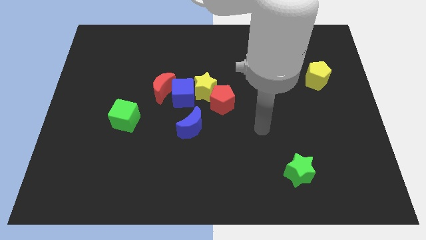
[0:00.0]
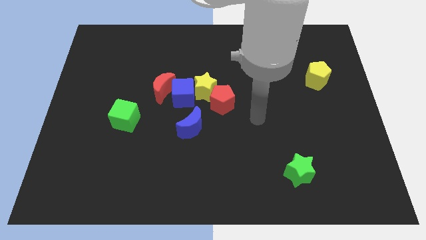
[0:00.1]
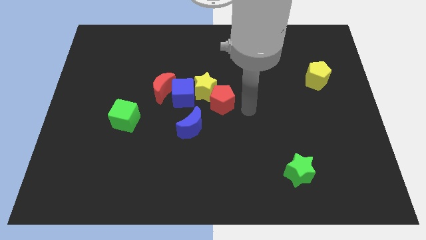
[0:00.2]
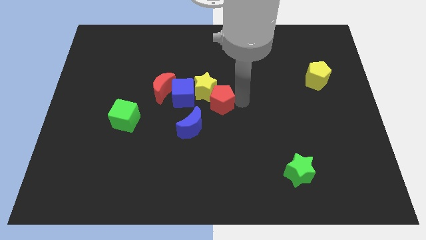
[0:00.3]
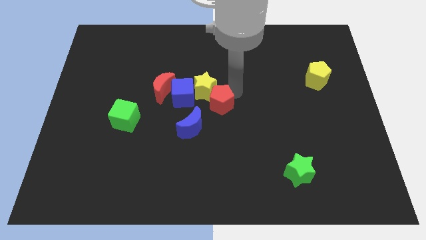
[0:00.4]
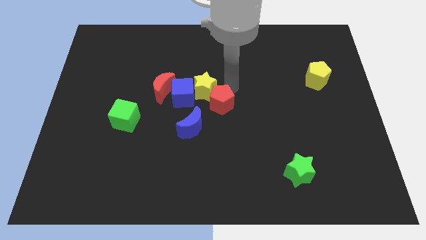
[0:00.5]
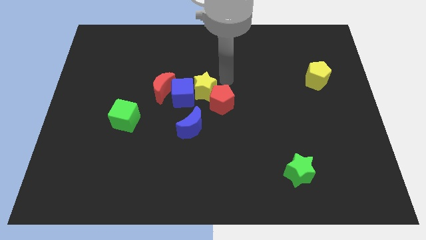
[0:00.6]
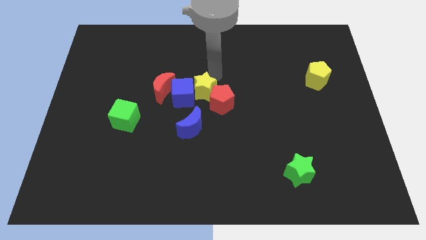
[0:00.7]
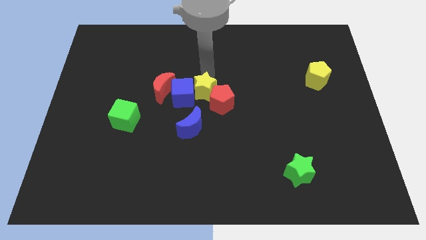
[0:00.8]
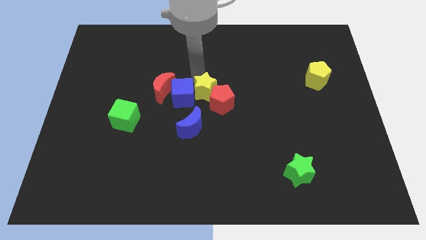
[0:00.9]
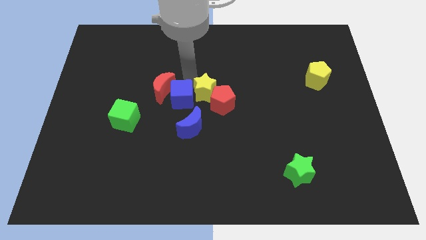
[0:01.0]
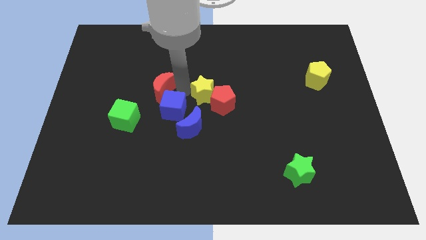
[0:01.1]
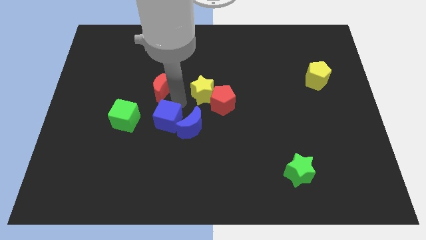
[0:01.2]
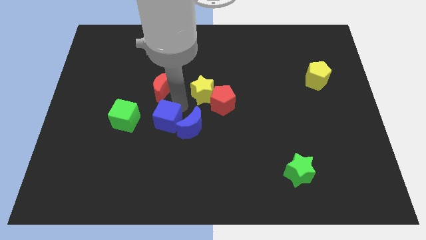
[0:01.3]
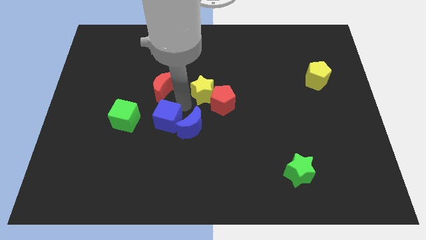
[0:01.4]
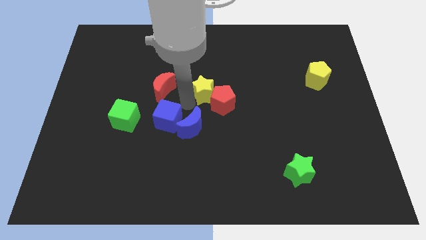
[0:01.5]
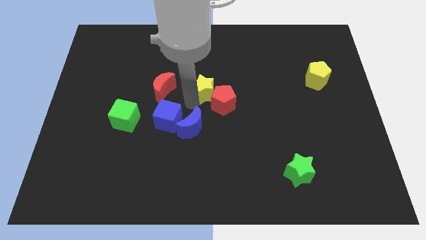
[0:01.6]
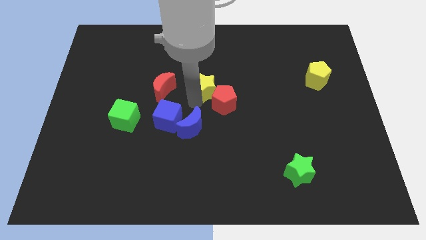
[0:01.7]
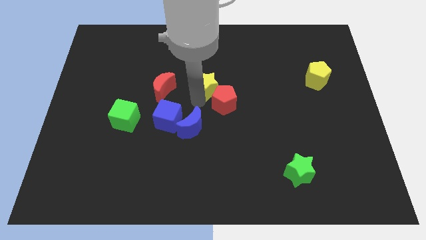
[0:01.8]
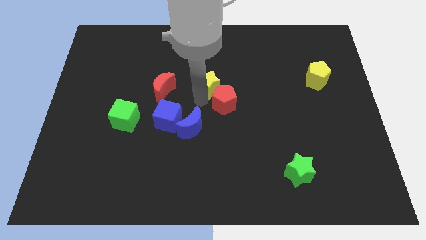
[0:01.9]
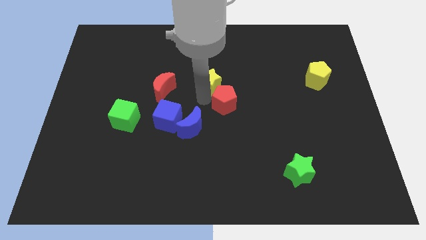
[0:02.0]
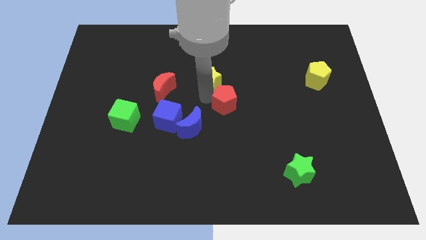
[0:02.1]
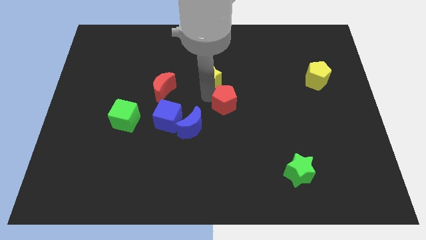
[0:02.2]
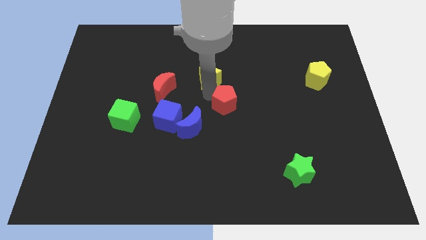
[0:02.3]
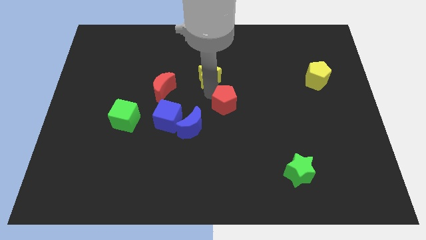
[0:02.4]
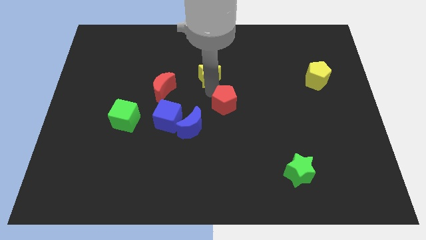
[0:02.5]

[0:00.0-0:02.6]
pull the yellow star apart from the blue cube, red pentagon, and red moon

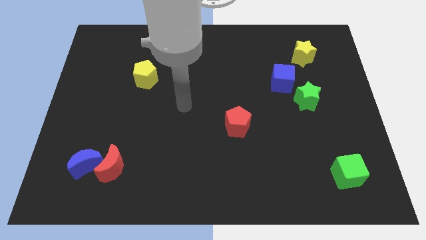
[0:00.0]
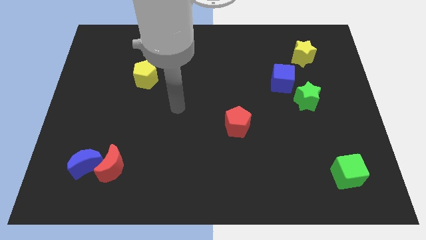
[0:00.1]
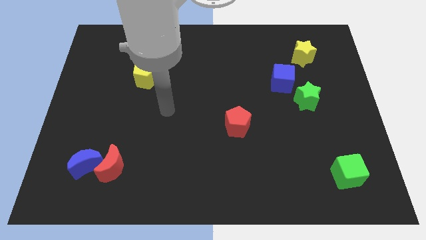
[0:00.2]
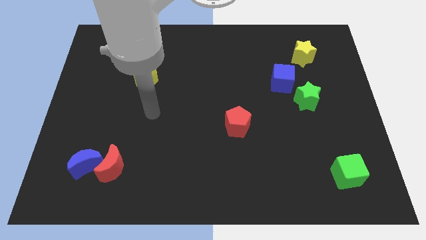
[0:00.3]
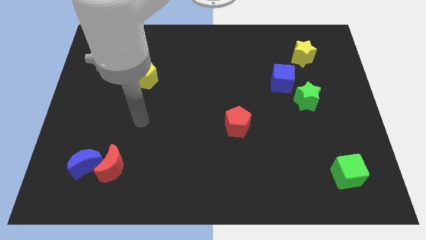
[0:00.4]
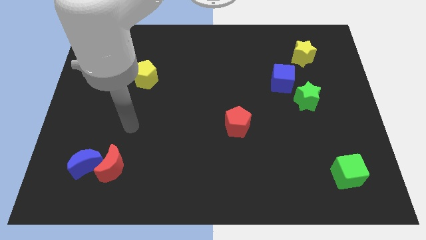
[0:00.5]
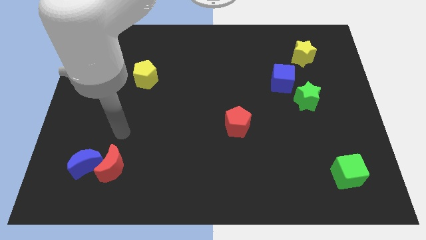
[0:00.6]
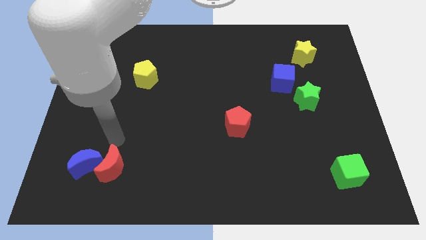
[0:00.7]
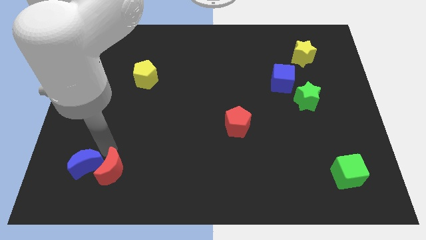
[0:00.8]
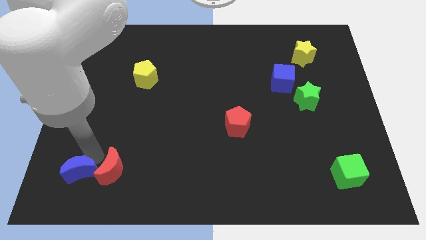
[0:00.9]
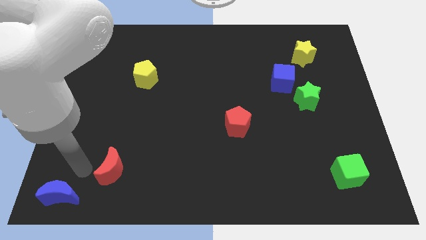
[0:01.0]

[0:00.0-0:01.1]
pull the red moon apart from the blue moon

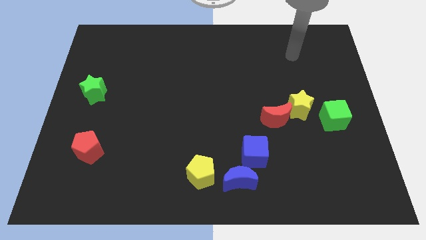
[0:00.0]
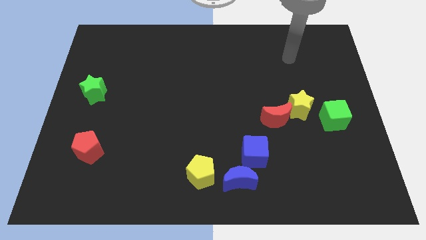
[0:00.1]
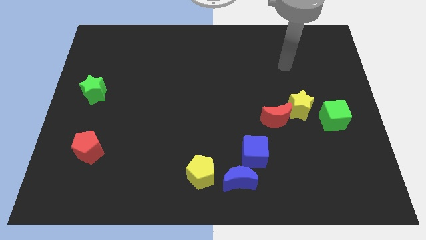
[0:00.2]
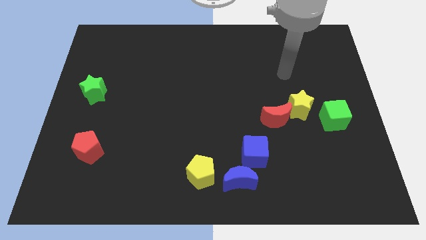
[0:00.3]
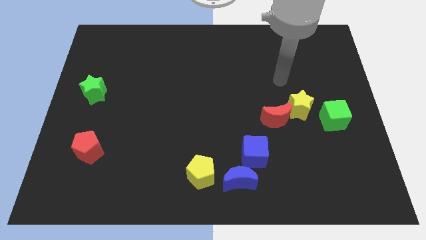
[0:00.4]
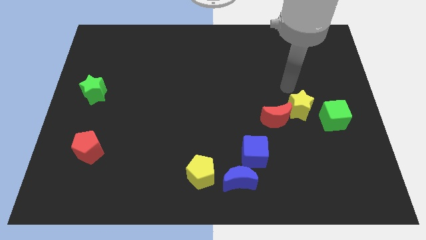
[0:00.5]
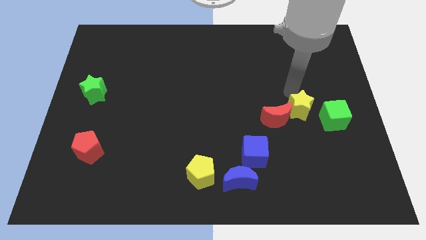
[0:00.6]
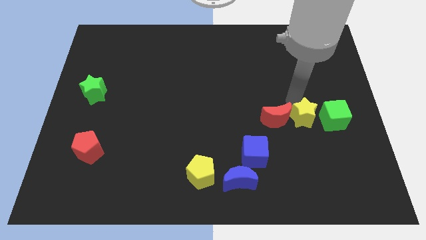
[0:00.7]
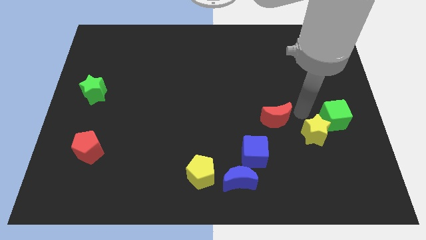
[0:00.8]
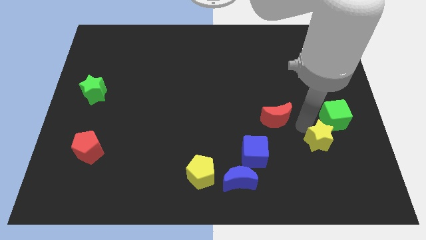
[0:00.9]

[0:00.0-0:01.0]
separate the red moon from the yellow star

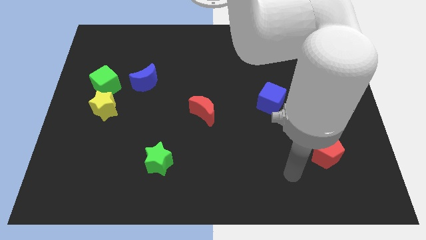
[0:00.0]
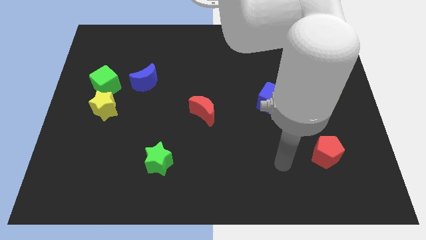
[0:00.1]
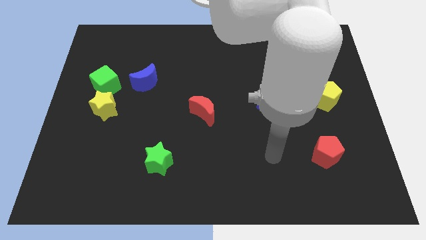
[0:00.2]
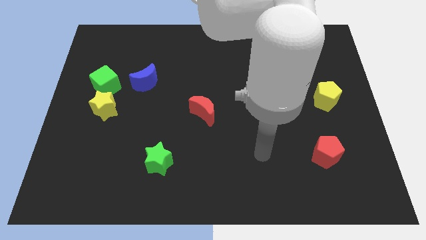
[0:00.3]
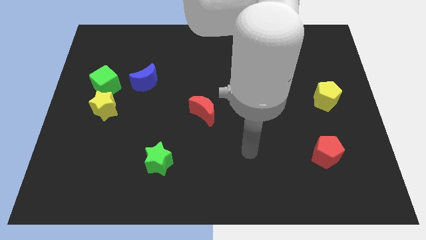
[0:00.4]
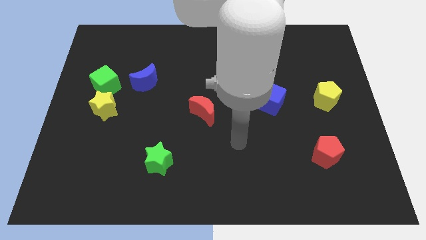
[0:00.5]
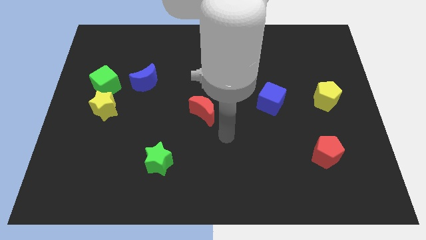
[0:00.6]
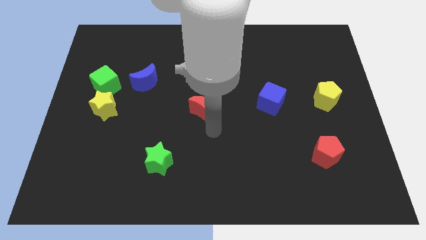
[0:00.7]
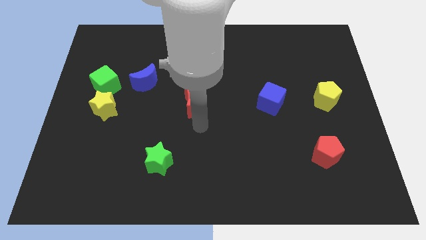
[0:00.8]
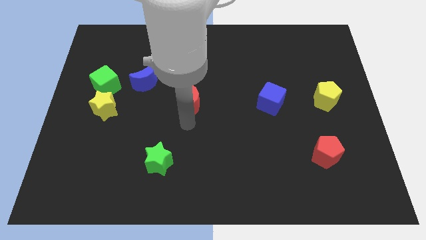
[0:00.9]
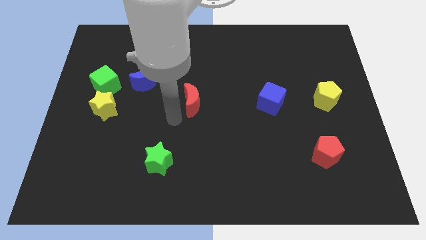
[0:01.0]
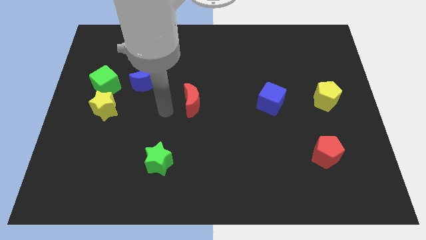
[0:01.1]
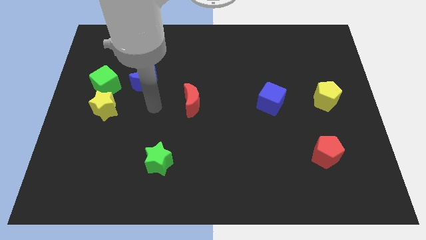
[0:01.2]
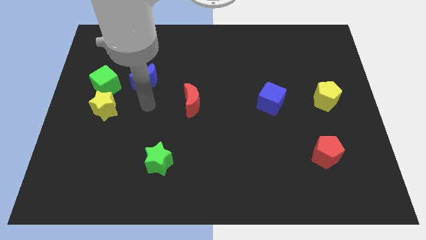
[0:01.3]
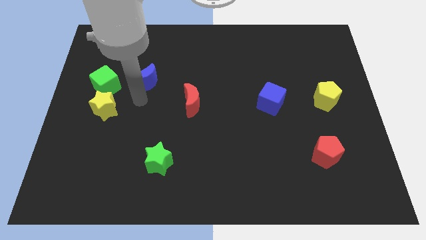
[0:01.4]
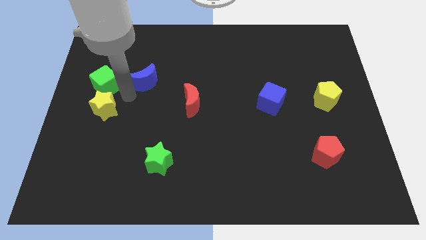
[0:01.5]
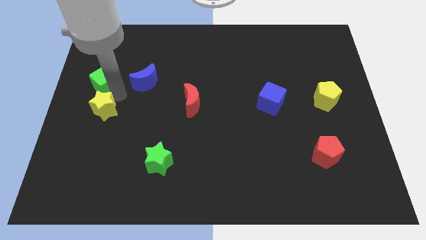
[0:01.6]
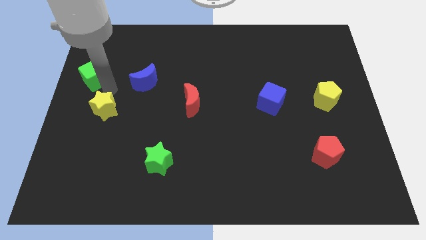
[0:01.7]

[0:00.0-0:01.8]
move the yellow star away from the green cube

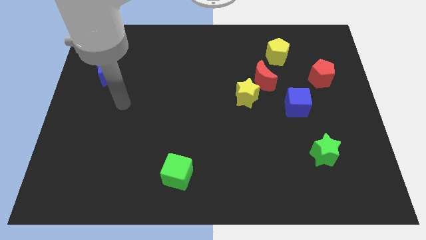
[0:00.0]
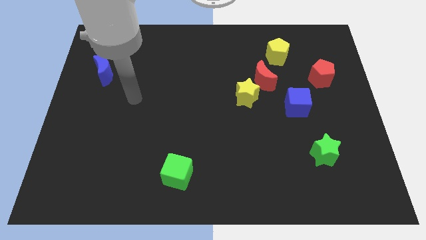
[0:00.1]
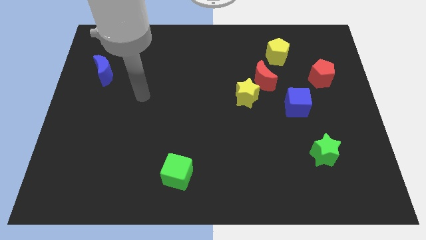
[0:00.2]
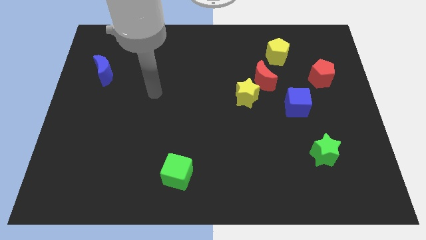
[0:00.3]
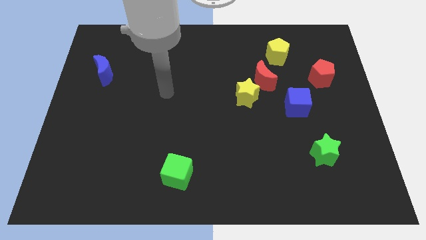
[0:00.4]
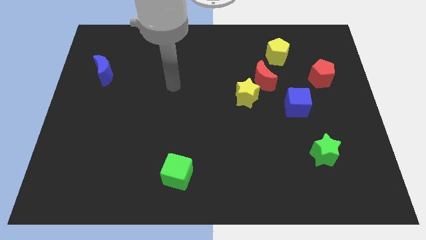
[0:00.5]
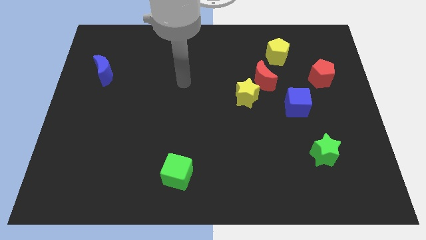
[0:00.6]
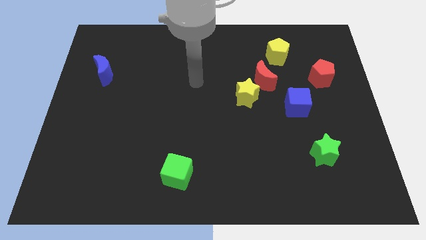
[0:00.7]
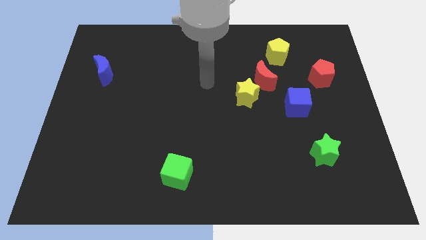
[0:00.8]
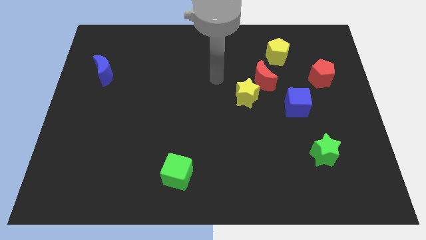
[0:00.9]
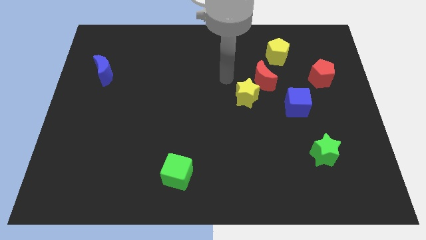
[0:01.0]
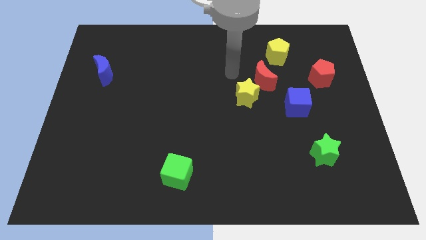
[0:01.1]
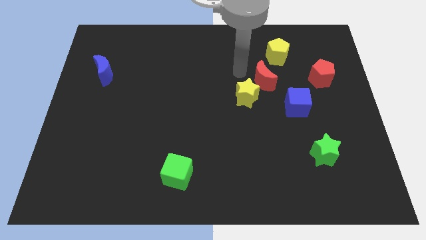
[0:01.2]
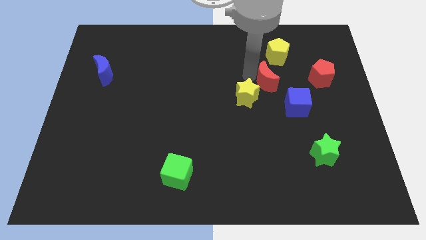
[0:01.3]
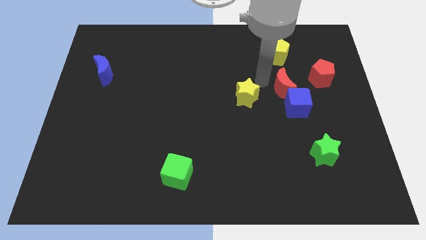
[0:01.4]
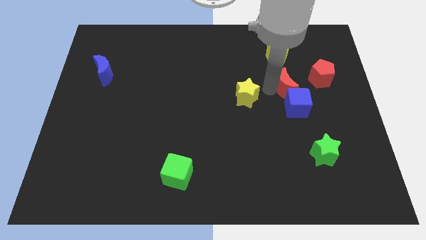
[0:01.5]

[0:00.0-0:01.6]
separate the yellow star from the red moon

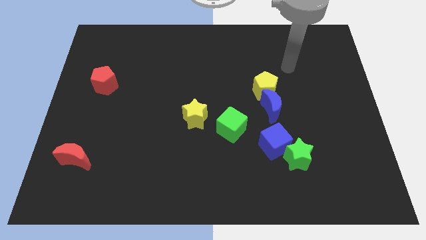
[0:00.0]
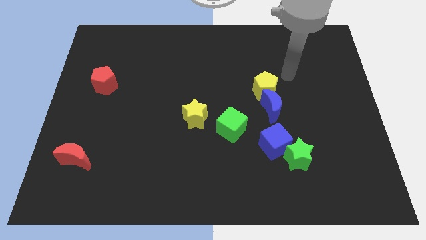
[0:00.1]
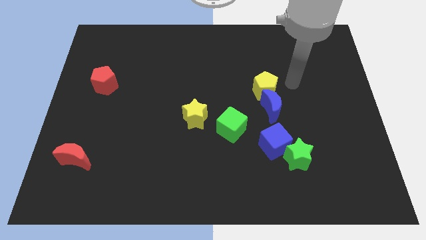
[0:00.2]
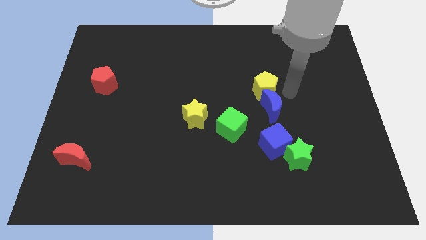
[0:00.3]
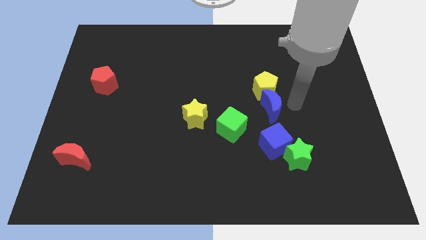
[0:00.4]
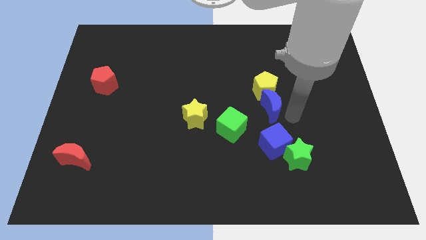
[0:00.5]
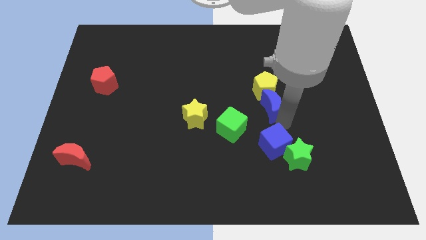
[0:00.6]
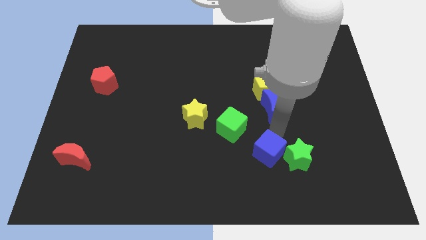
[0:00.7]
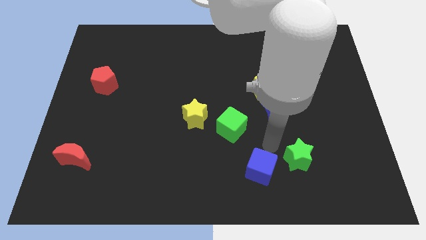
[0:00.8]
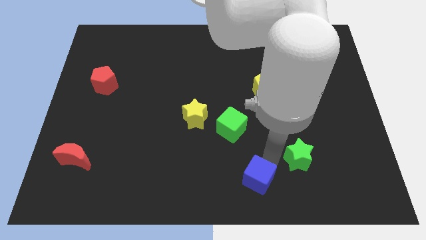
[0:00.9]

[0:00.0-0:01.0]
move the green star away from the blue cube

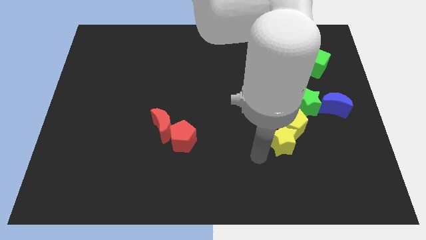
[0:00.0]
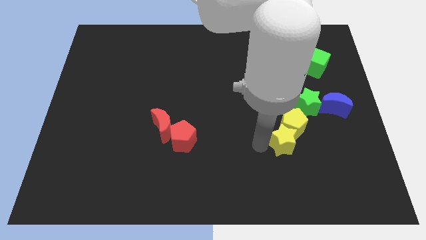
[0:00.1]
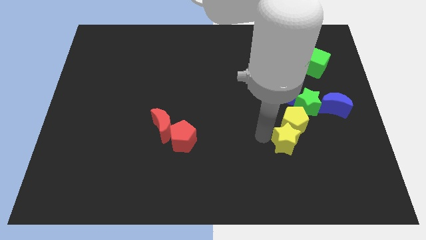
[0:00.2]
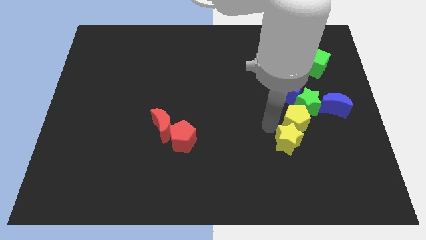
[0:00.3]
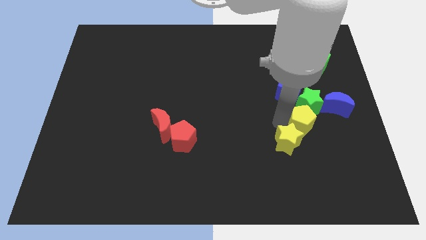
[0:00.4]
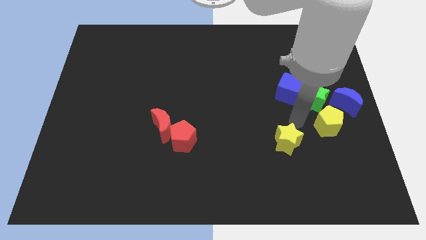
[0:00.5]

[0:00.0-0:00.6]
pull the yellow star apart from the yellow pentagon
